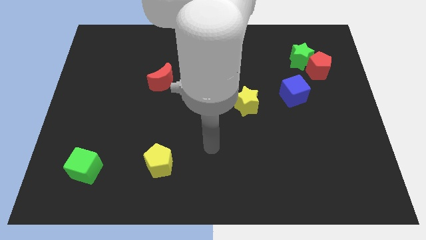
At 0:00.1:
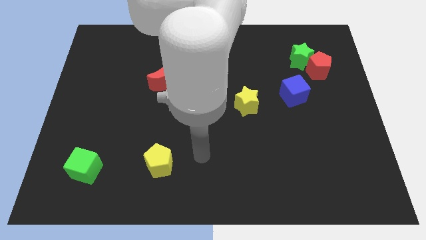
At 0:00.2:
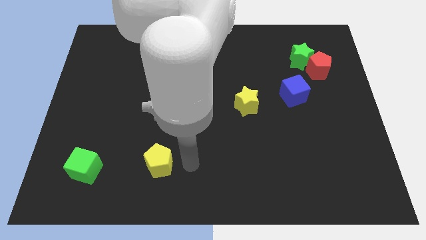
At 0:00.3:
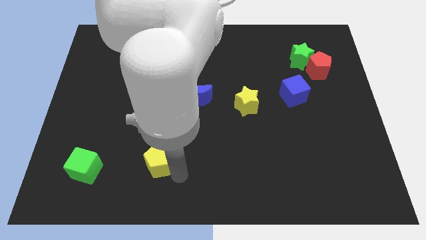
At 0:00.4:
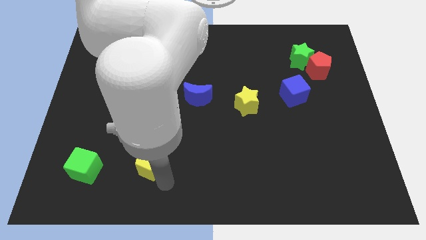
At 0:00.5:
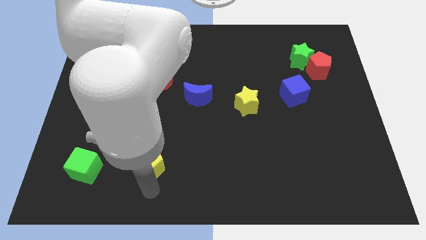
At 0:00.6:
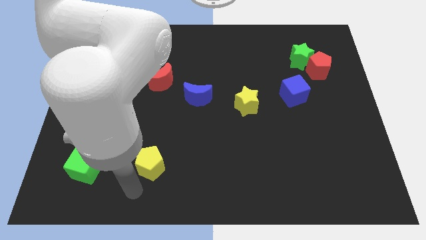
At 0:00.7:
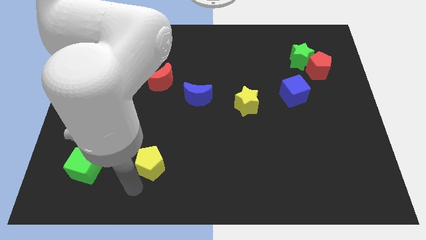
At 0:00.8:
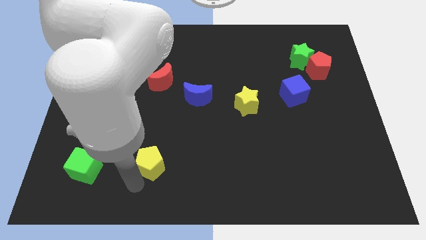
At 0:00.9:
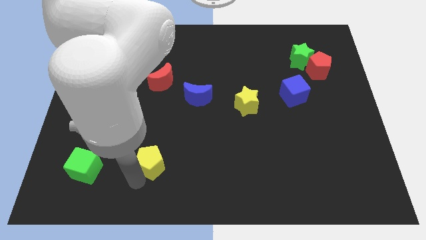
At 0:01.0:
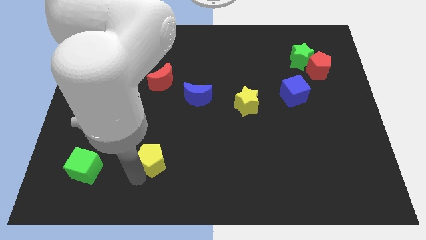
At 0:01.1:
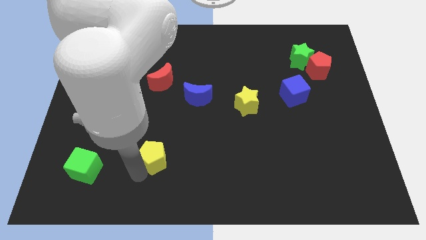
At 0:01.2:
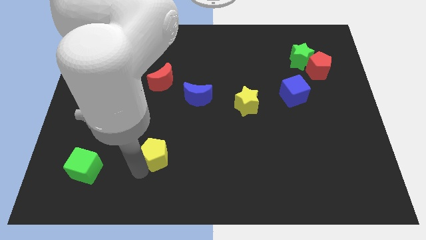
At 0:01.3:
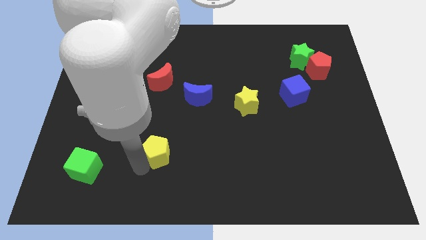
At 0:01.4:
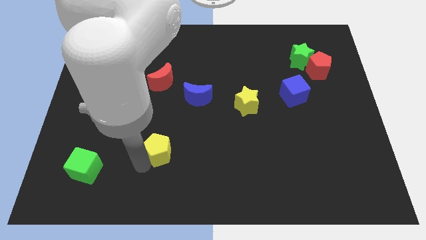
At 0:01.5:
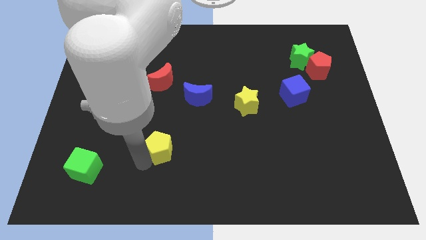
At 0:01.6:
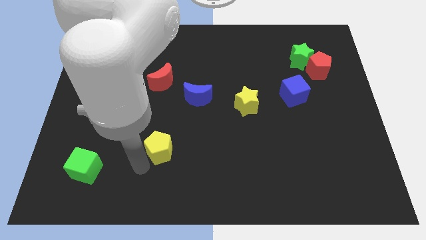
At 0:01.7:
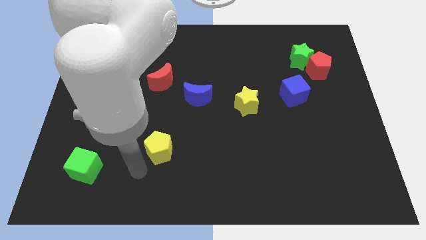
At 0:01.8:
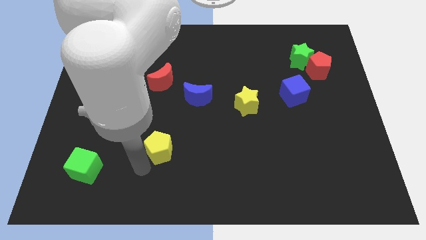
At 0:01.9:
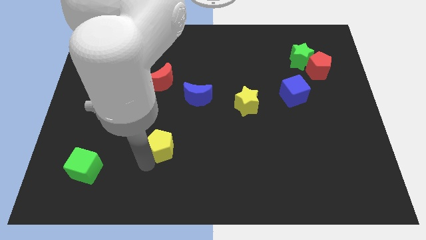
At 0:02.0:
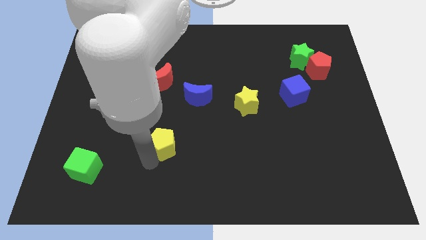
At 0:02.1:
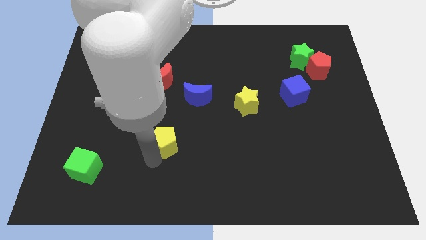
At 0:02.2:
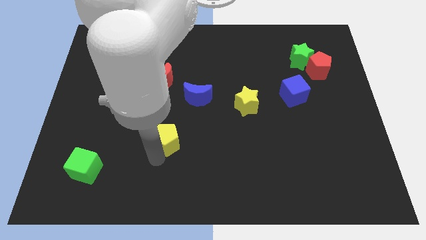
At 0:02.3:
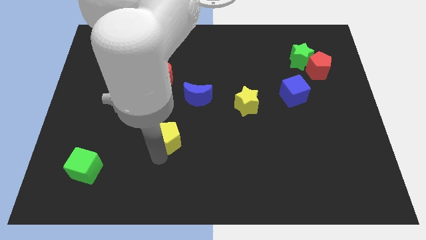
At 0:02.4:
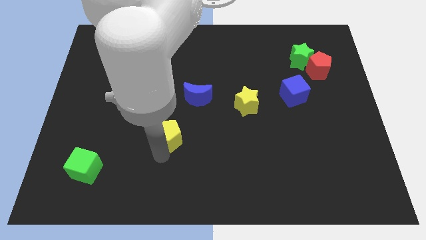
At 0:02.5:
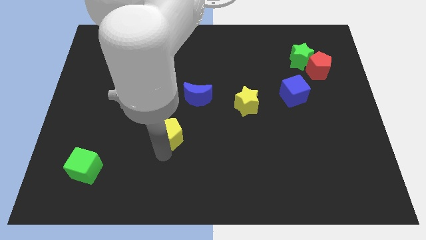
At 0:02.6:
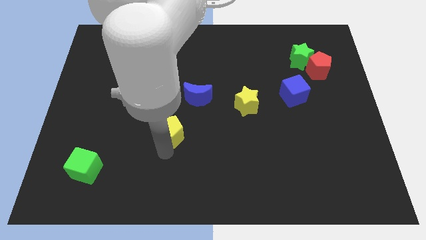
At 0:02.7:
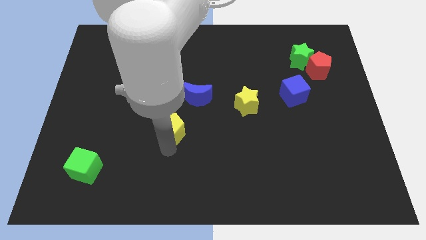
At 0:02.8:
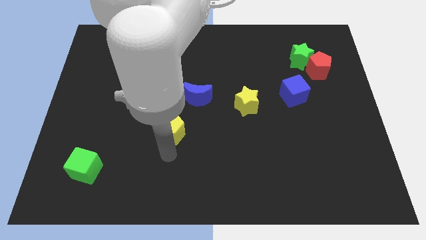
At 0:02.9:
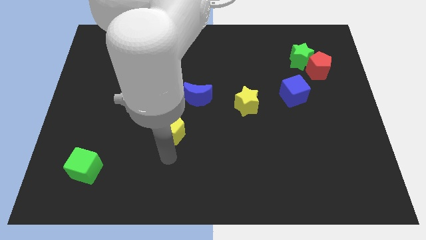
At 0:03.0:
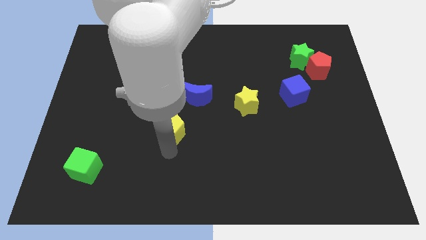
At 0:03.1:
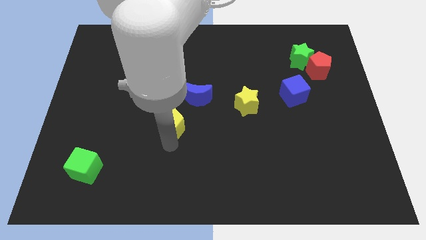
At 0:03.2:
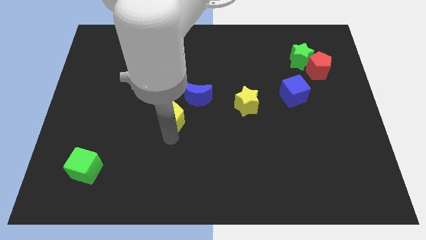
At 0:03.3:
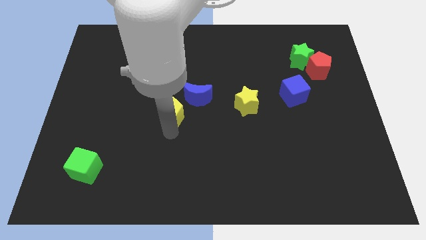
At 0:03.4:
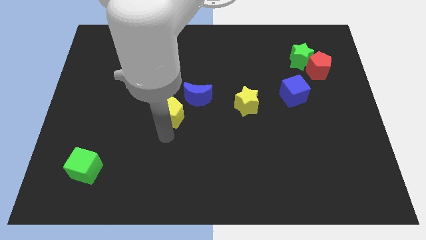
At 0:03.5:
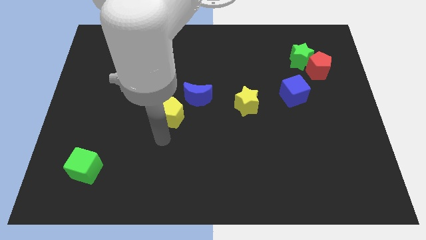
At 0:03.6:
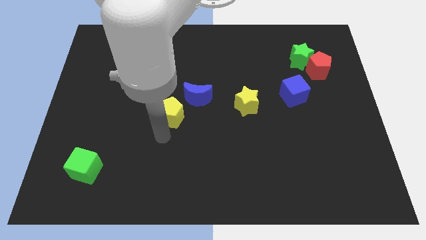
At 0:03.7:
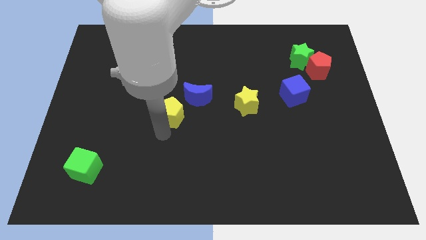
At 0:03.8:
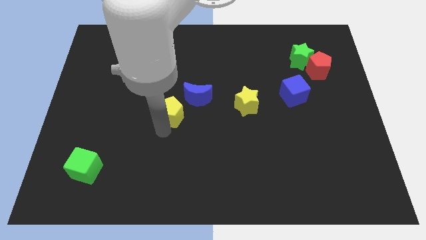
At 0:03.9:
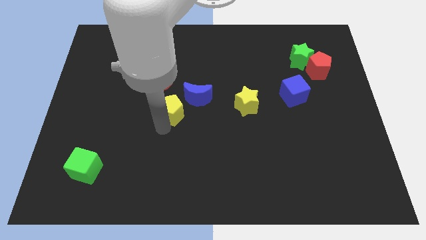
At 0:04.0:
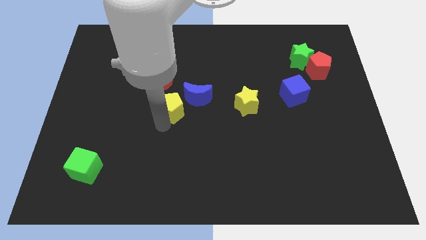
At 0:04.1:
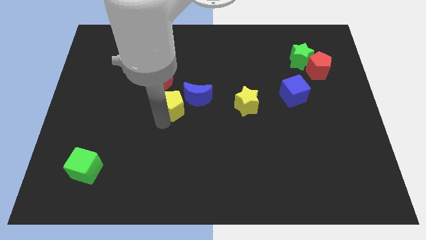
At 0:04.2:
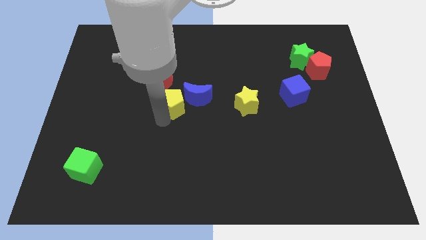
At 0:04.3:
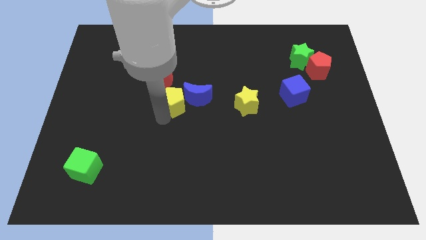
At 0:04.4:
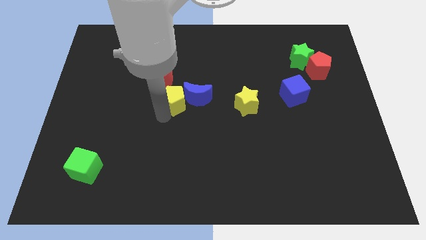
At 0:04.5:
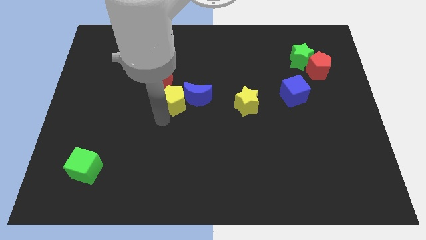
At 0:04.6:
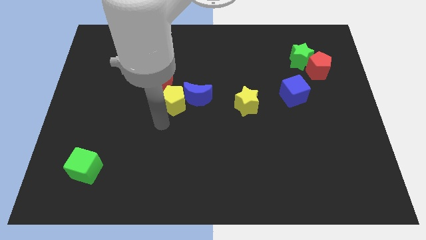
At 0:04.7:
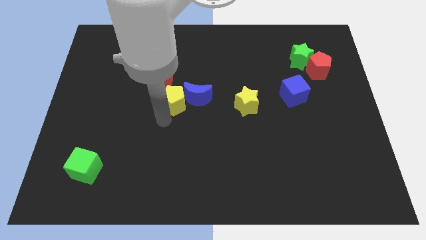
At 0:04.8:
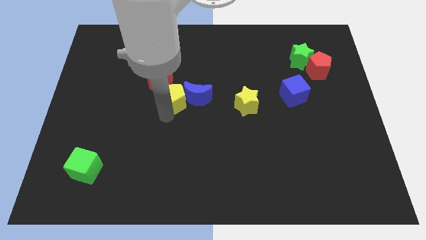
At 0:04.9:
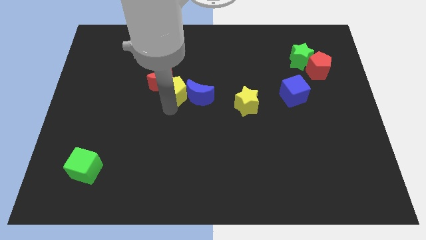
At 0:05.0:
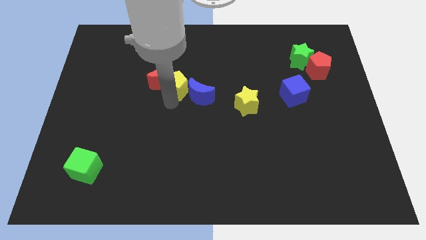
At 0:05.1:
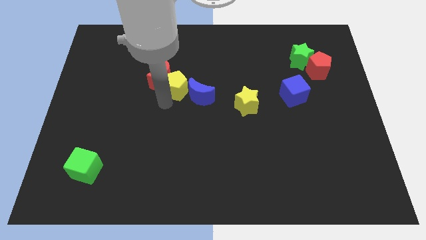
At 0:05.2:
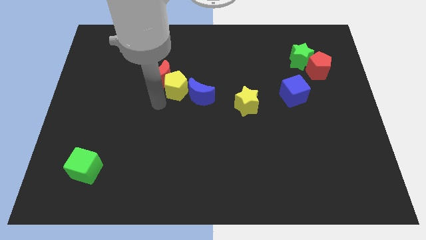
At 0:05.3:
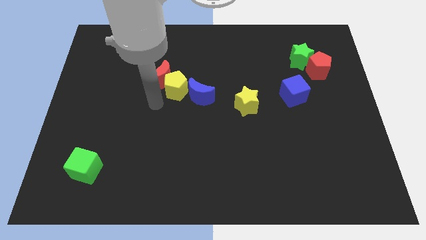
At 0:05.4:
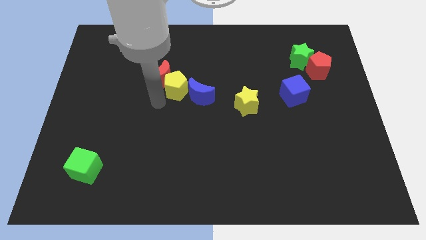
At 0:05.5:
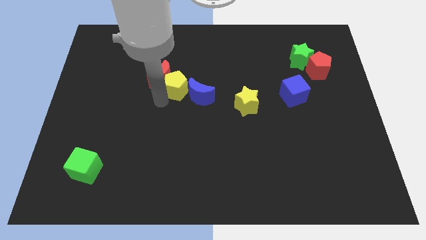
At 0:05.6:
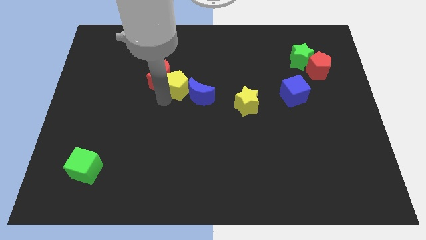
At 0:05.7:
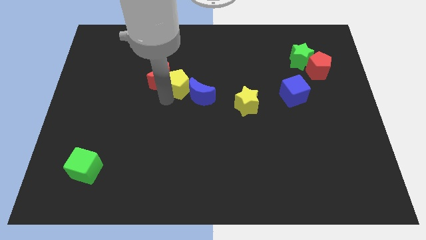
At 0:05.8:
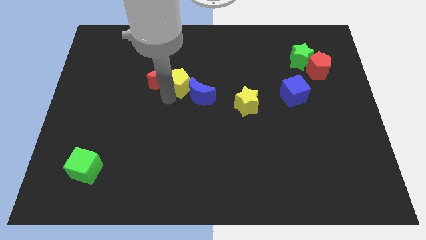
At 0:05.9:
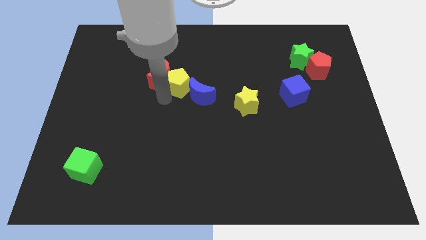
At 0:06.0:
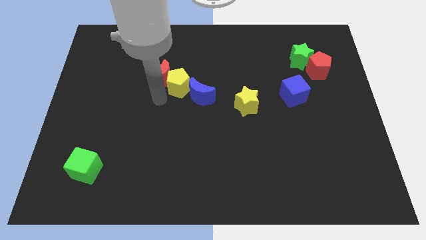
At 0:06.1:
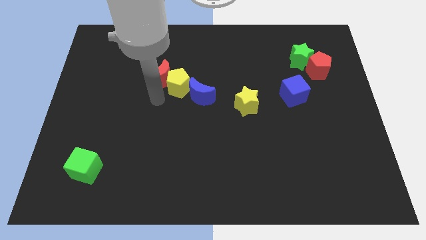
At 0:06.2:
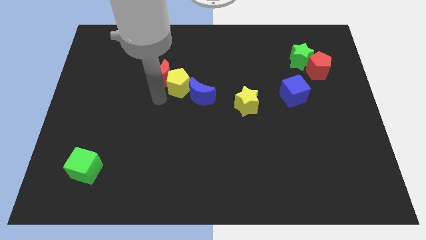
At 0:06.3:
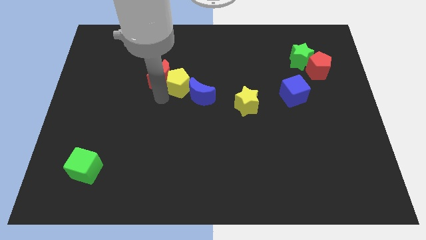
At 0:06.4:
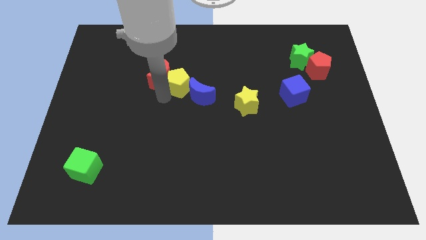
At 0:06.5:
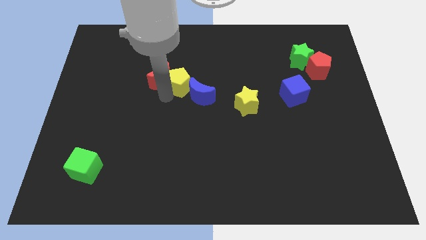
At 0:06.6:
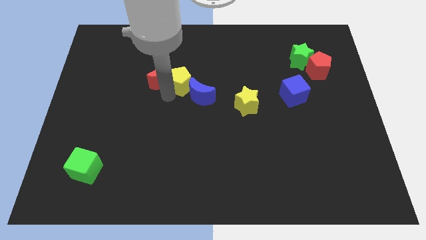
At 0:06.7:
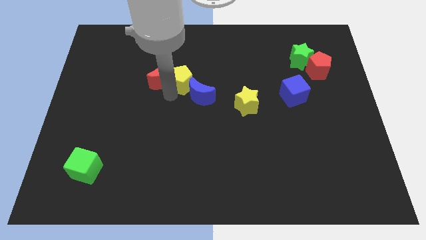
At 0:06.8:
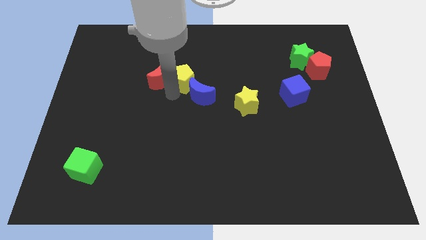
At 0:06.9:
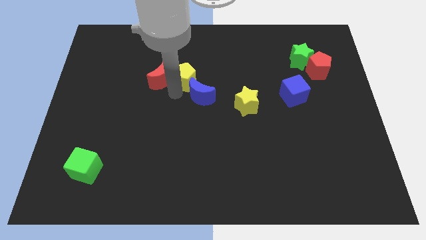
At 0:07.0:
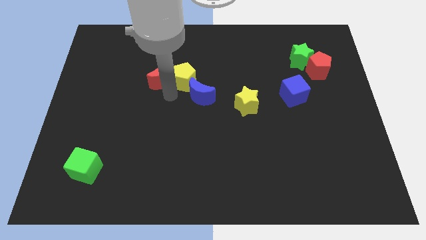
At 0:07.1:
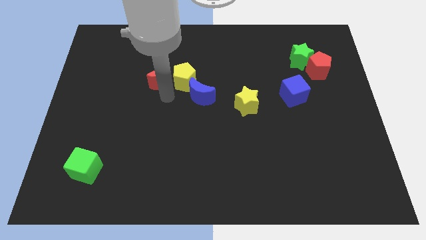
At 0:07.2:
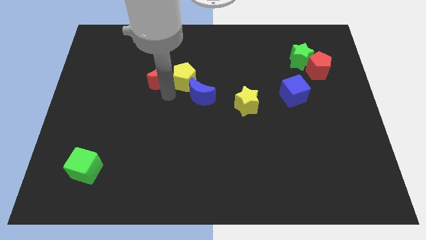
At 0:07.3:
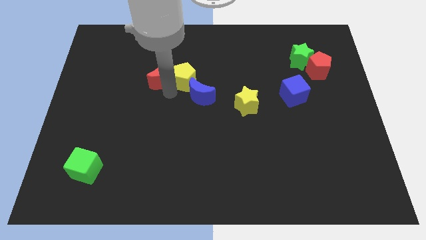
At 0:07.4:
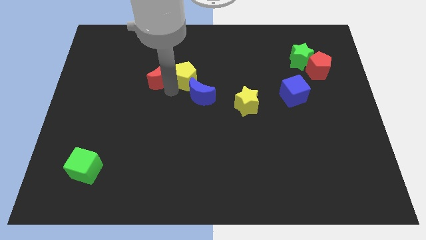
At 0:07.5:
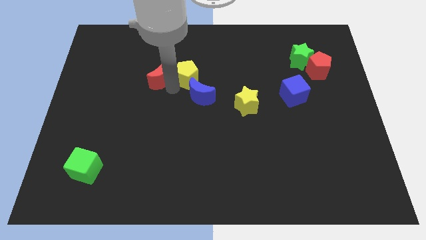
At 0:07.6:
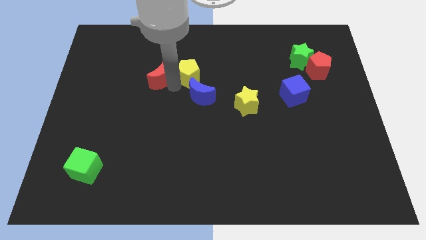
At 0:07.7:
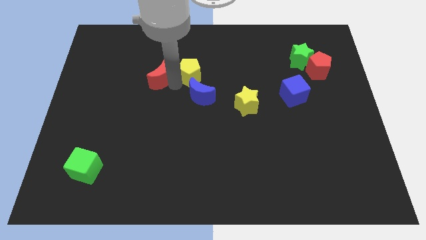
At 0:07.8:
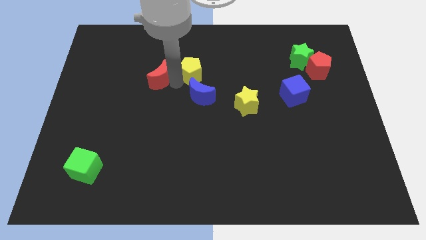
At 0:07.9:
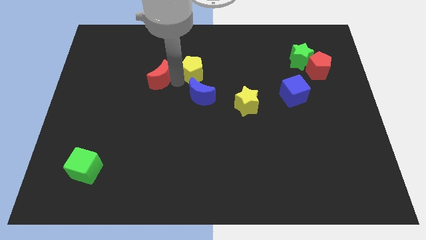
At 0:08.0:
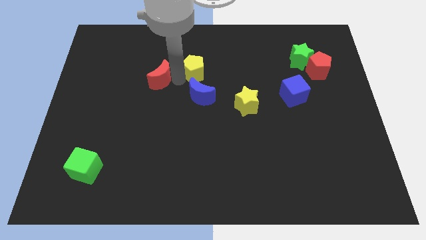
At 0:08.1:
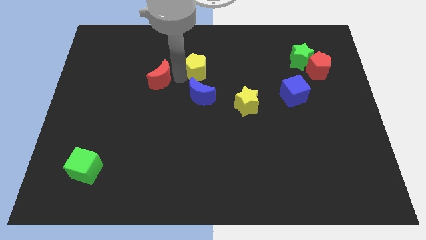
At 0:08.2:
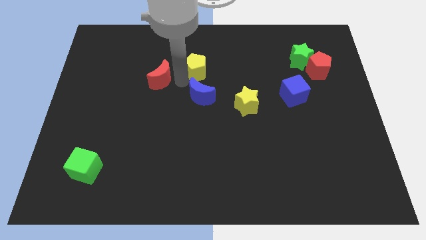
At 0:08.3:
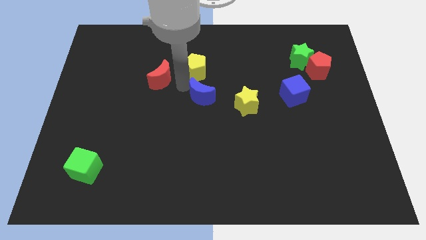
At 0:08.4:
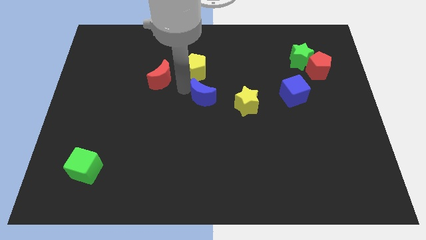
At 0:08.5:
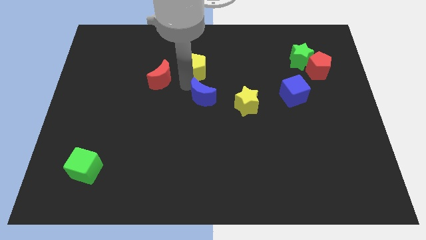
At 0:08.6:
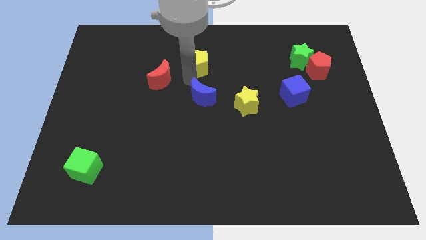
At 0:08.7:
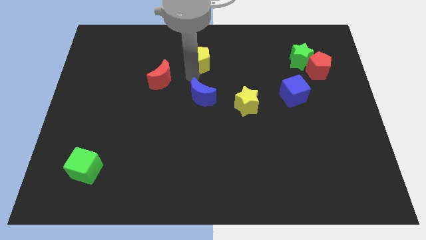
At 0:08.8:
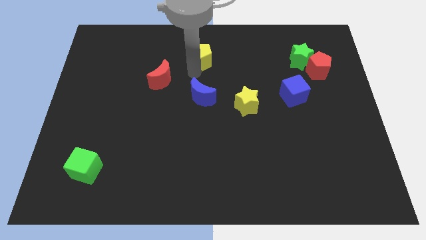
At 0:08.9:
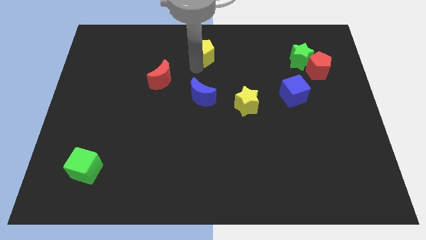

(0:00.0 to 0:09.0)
slide the yellow pentagon to the top side
